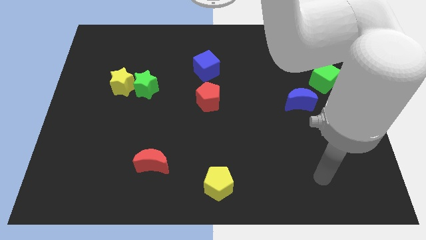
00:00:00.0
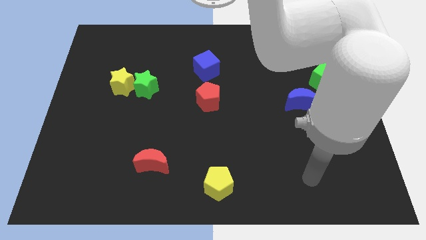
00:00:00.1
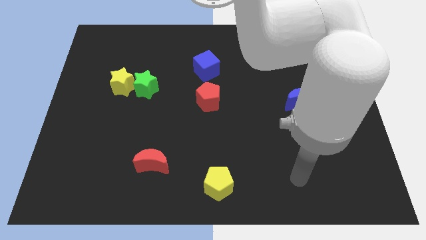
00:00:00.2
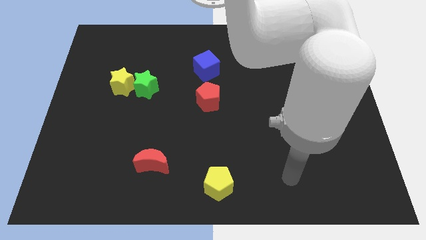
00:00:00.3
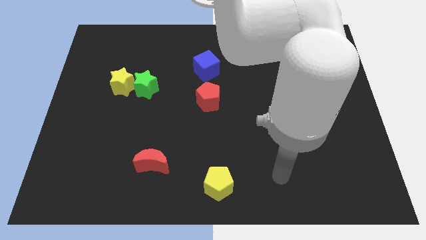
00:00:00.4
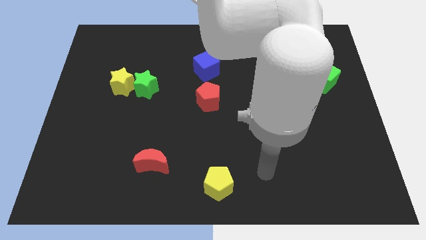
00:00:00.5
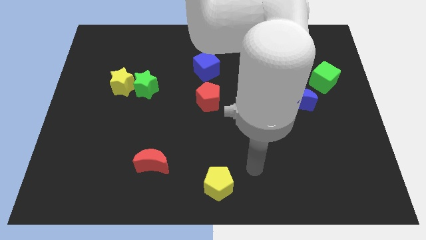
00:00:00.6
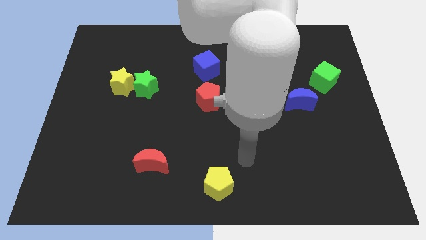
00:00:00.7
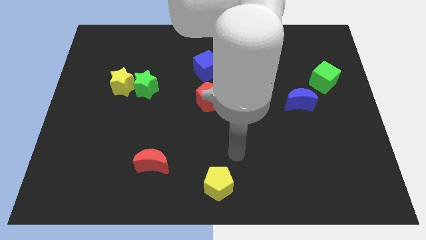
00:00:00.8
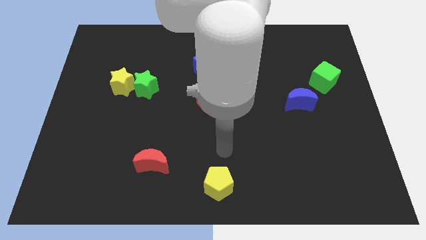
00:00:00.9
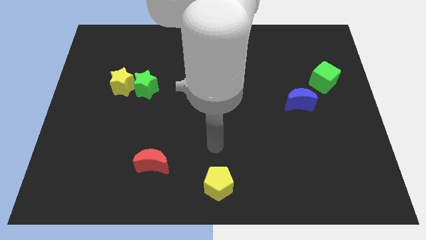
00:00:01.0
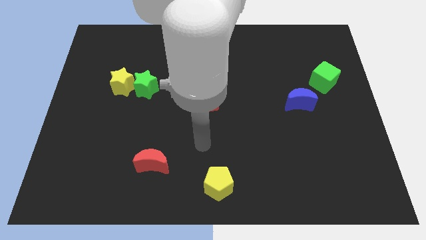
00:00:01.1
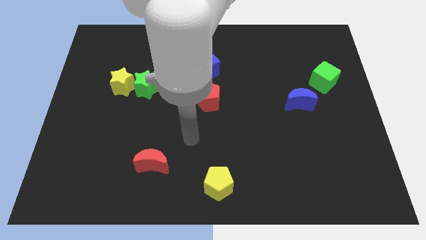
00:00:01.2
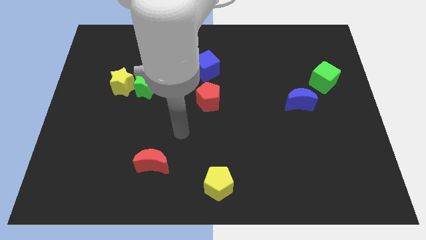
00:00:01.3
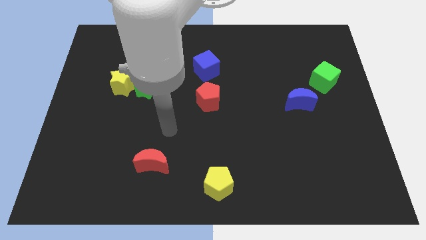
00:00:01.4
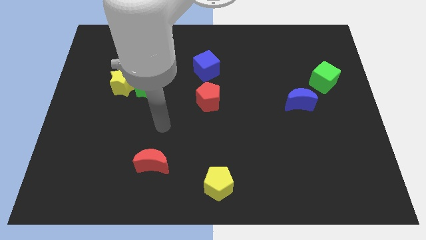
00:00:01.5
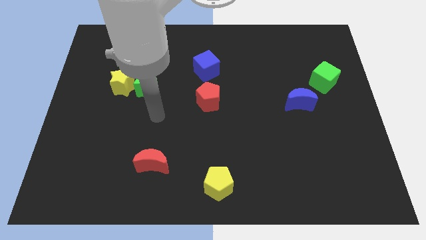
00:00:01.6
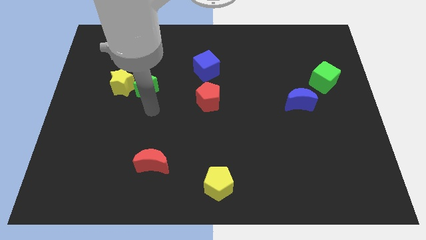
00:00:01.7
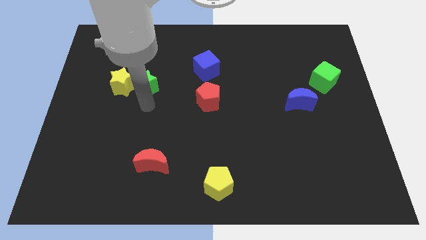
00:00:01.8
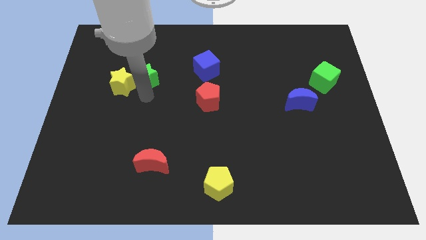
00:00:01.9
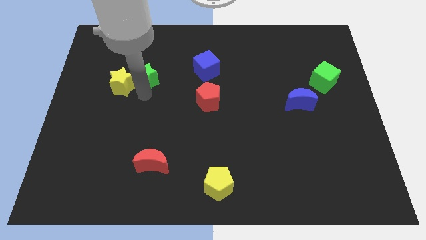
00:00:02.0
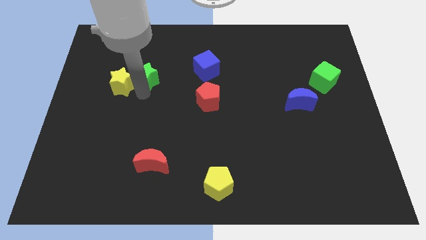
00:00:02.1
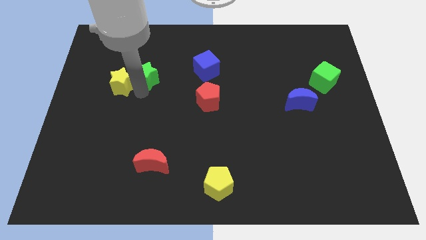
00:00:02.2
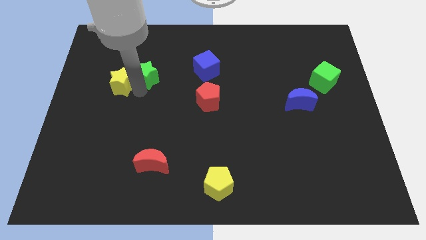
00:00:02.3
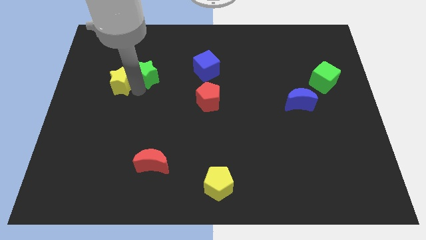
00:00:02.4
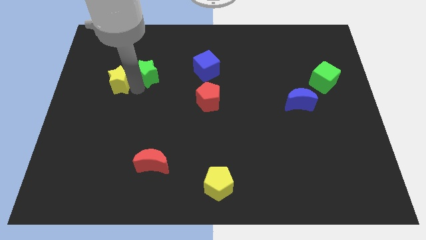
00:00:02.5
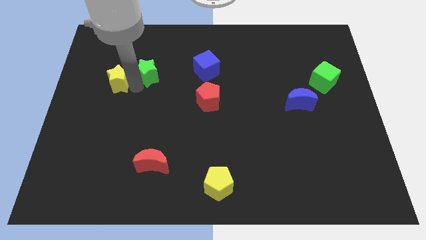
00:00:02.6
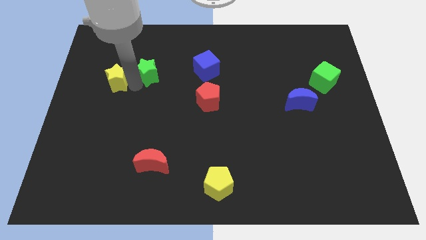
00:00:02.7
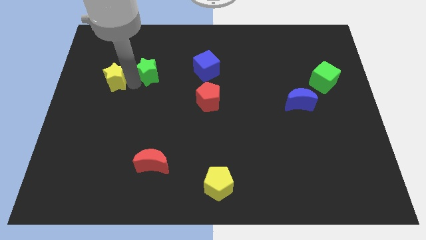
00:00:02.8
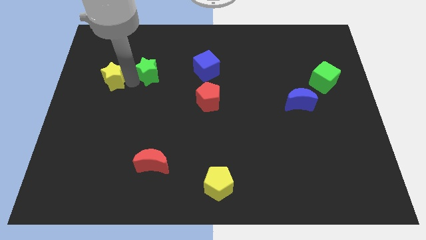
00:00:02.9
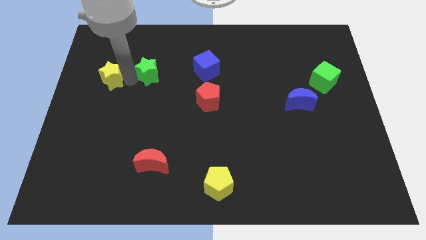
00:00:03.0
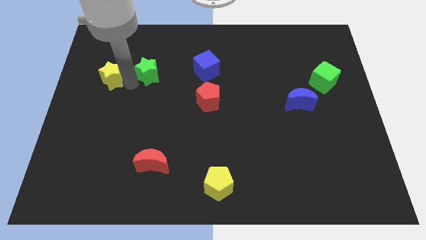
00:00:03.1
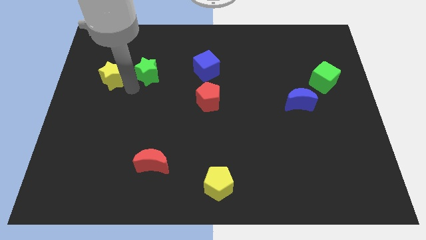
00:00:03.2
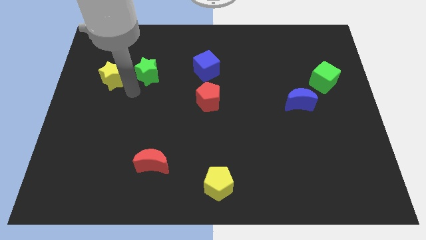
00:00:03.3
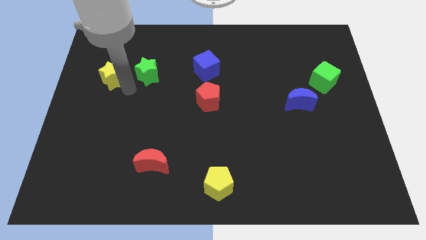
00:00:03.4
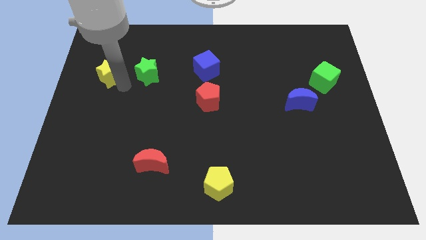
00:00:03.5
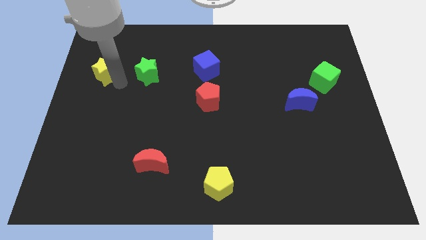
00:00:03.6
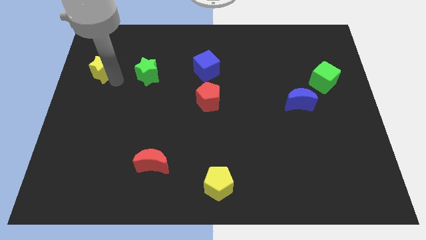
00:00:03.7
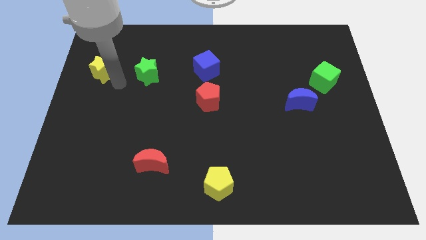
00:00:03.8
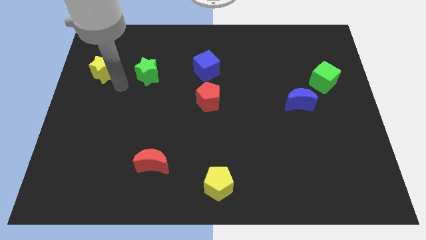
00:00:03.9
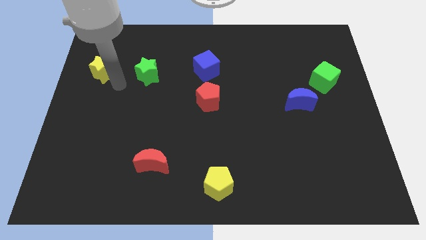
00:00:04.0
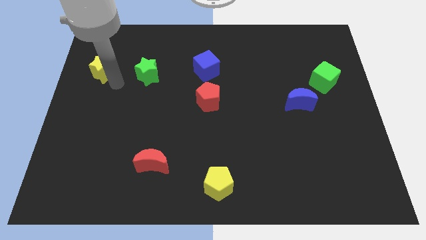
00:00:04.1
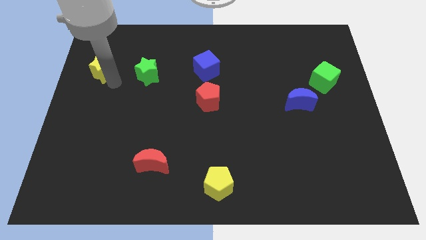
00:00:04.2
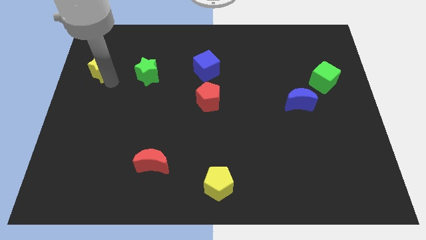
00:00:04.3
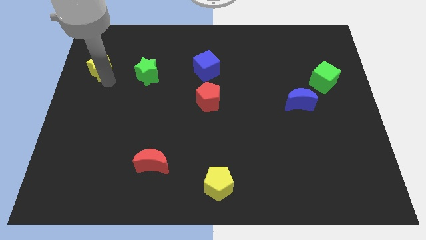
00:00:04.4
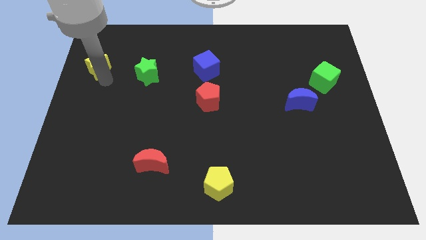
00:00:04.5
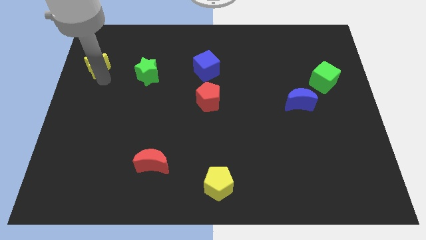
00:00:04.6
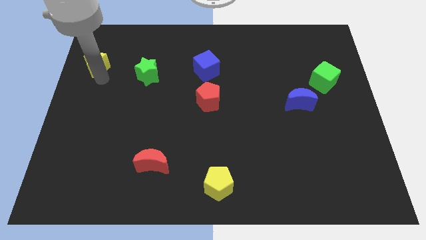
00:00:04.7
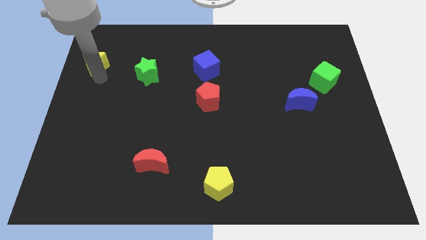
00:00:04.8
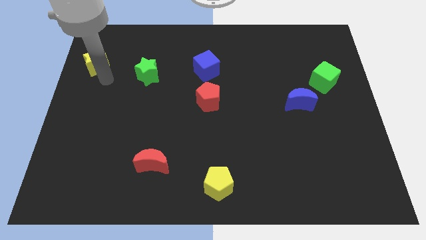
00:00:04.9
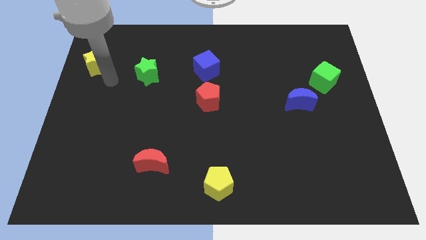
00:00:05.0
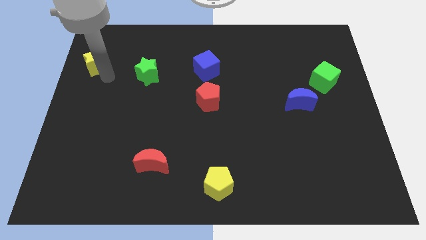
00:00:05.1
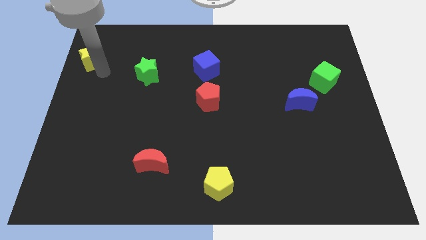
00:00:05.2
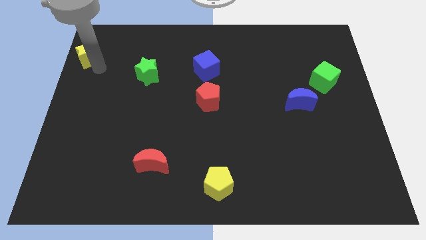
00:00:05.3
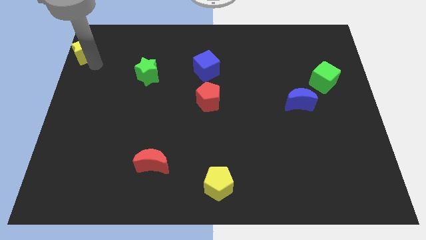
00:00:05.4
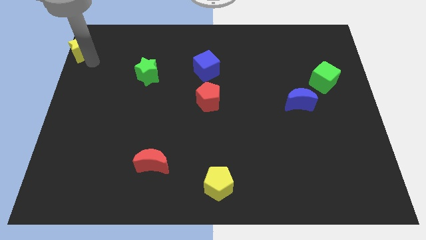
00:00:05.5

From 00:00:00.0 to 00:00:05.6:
push the yellow star to the top left

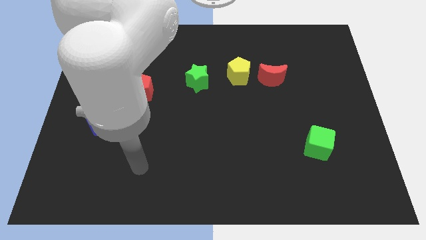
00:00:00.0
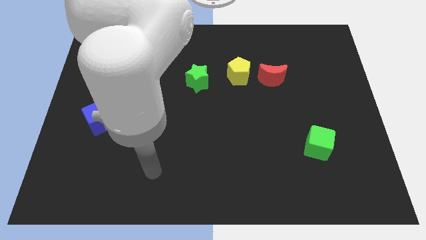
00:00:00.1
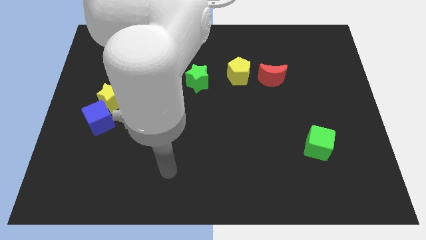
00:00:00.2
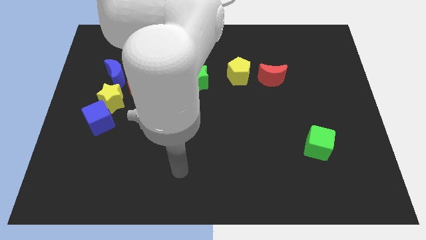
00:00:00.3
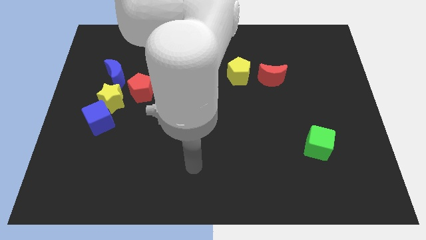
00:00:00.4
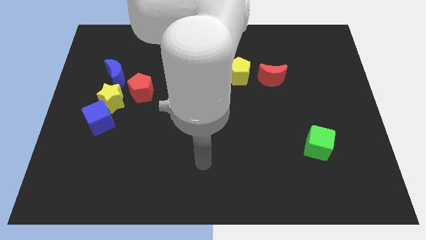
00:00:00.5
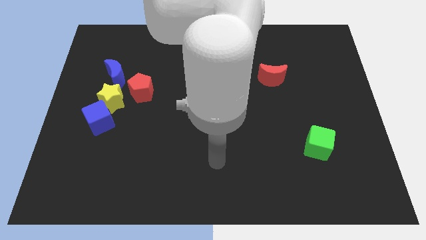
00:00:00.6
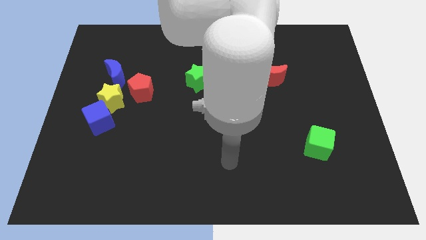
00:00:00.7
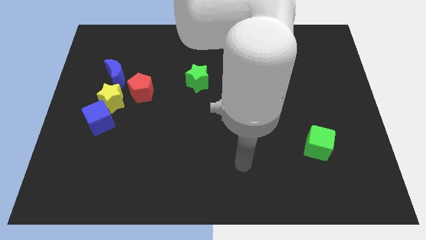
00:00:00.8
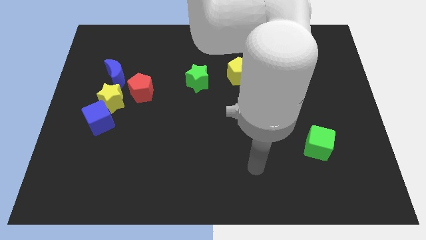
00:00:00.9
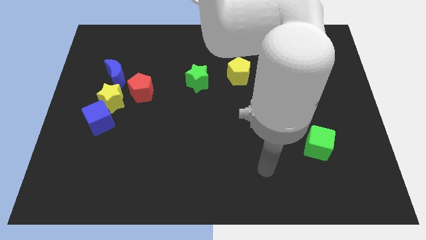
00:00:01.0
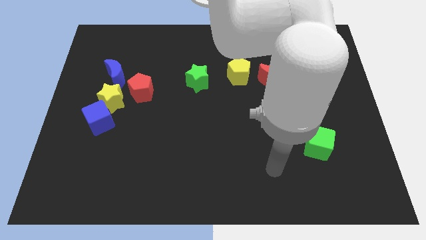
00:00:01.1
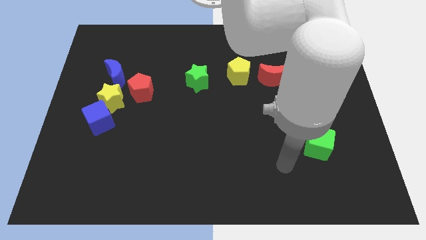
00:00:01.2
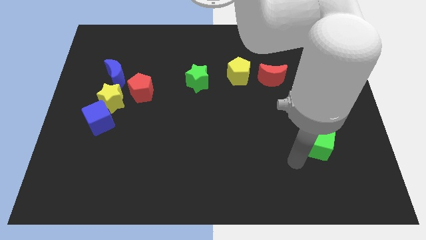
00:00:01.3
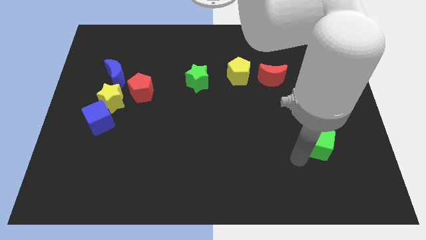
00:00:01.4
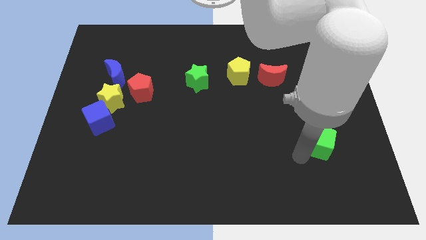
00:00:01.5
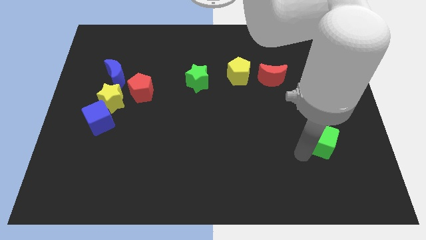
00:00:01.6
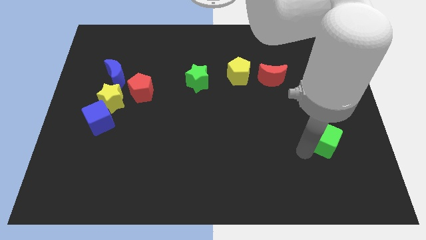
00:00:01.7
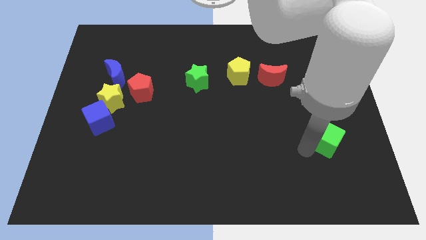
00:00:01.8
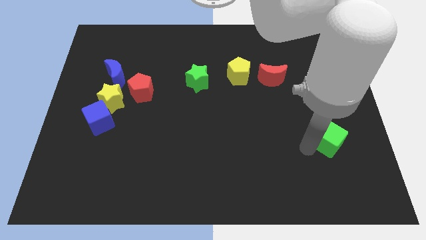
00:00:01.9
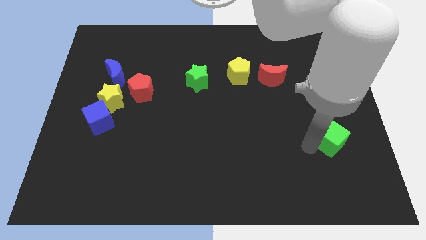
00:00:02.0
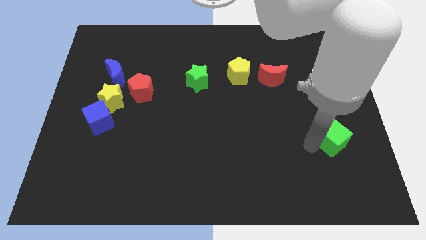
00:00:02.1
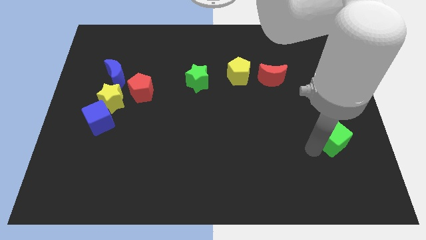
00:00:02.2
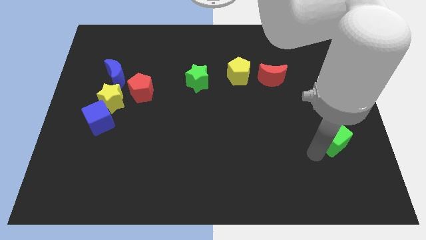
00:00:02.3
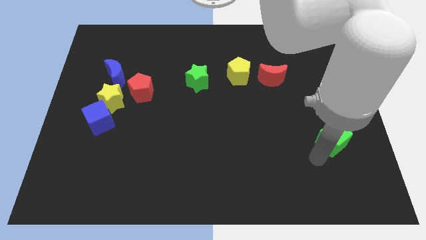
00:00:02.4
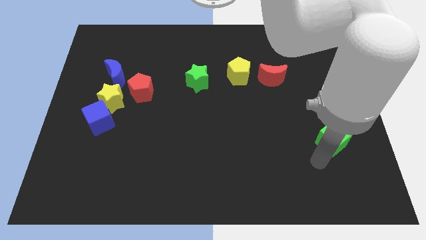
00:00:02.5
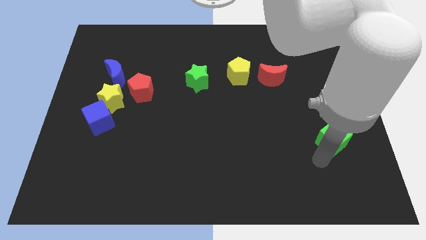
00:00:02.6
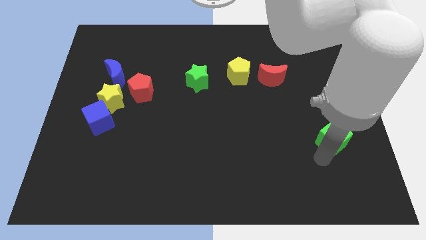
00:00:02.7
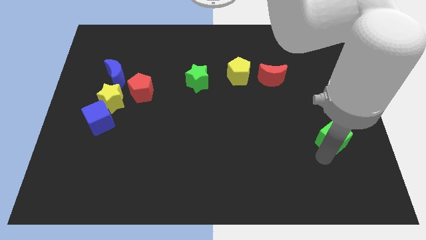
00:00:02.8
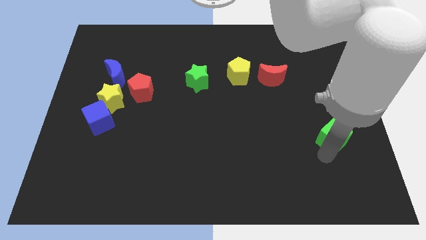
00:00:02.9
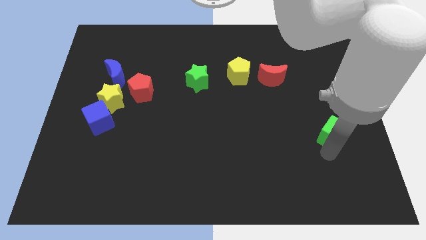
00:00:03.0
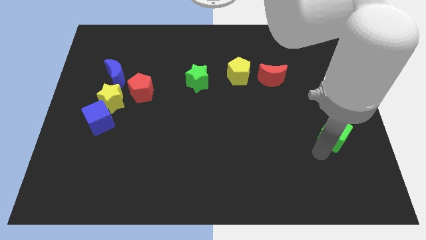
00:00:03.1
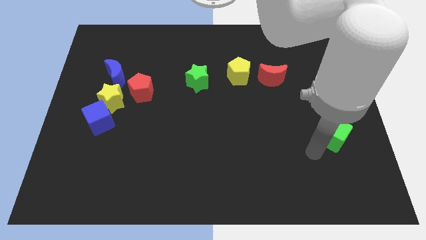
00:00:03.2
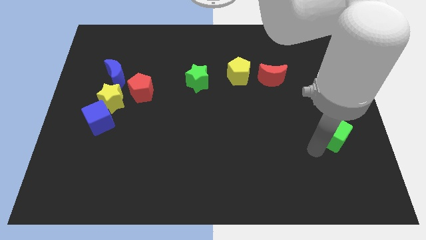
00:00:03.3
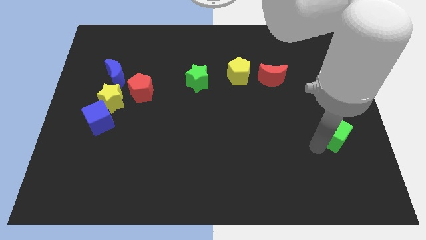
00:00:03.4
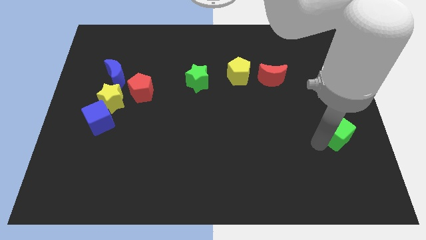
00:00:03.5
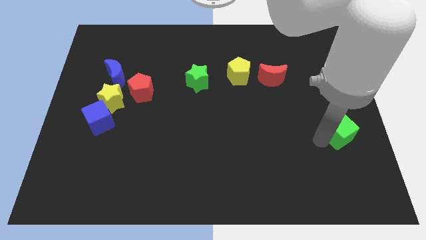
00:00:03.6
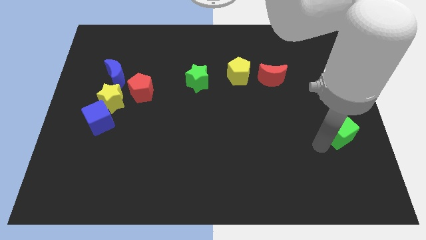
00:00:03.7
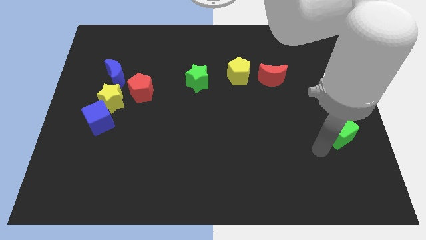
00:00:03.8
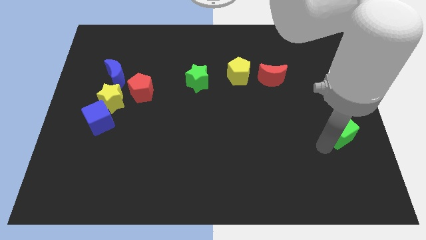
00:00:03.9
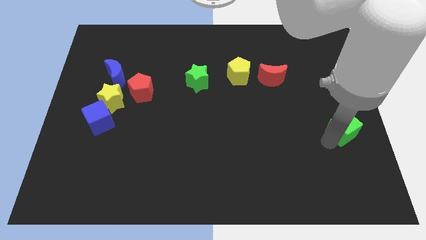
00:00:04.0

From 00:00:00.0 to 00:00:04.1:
move the green cube to the right side of the board
